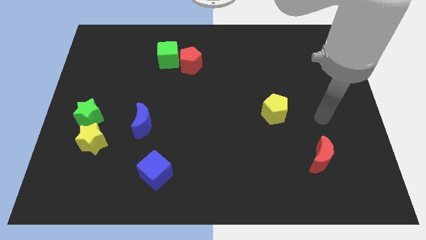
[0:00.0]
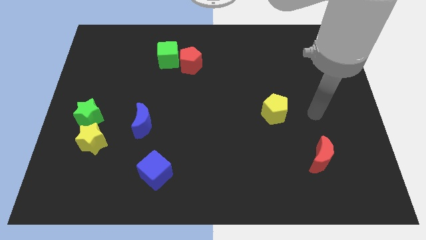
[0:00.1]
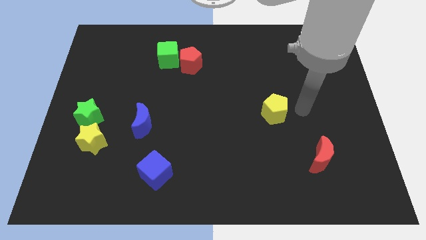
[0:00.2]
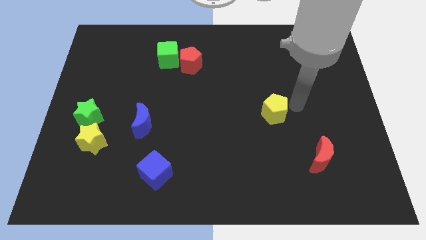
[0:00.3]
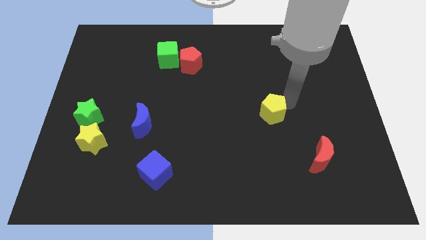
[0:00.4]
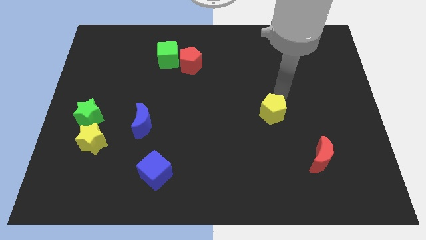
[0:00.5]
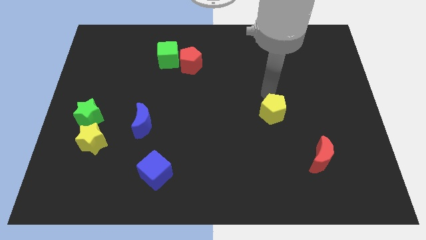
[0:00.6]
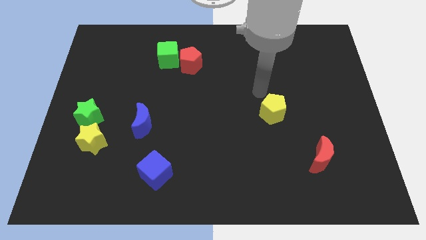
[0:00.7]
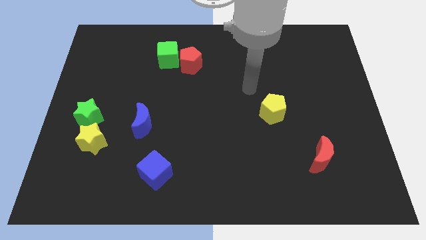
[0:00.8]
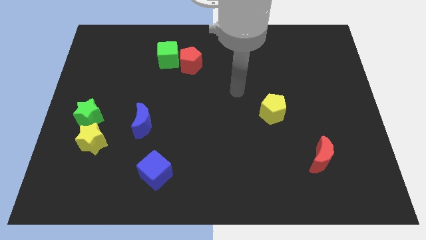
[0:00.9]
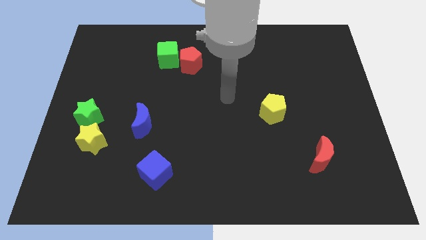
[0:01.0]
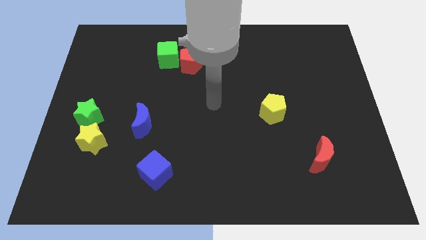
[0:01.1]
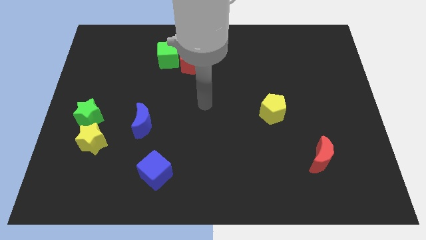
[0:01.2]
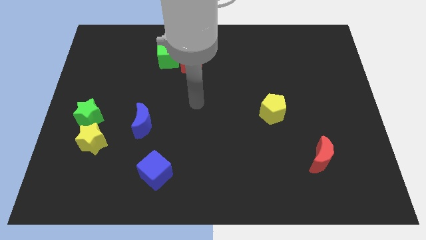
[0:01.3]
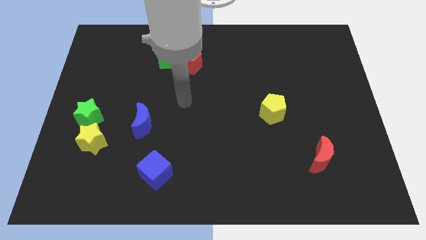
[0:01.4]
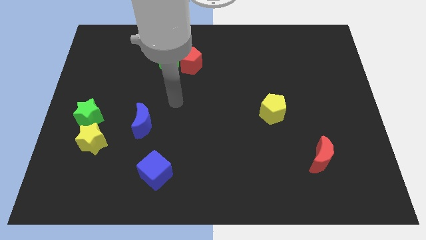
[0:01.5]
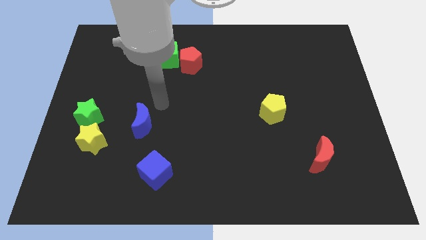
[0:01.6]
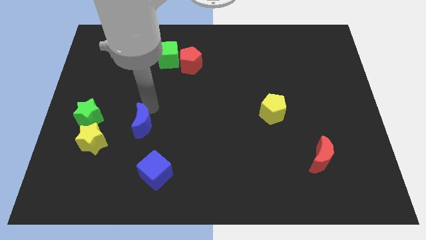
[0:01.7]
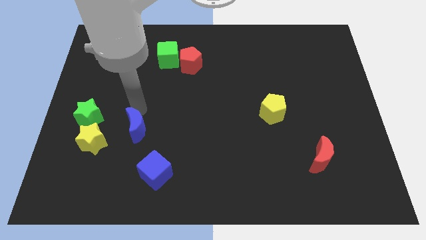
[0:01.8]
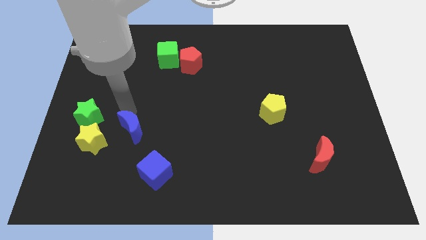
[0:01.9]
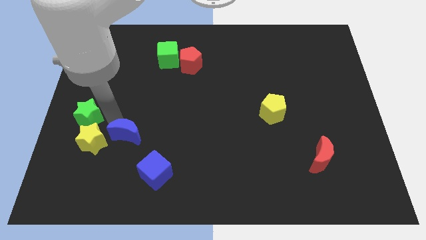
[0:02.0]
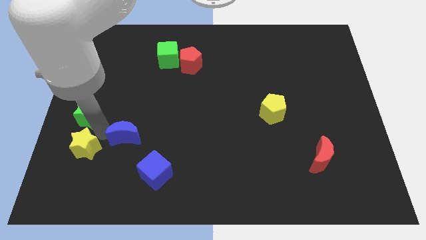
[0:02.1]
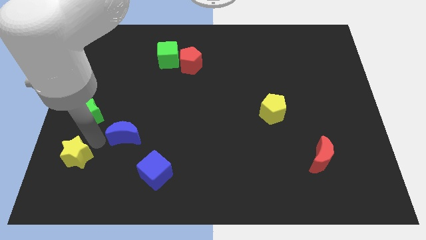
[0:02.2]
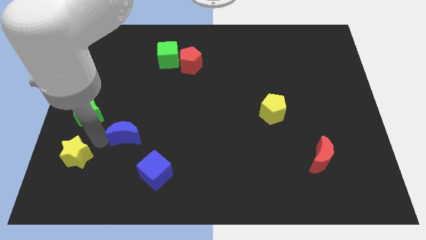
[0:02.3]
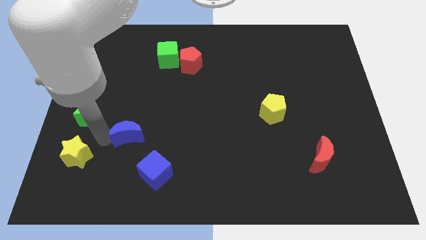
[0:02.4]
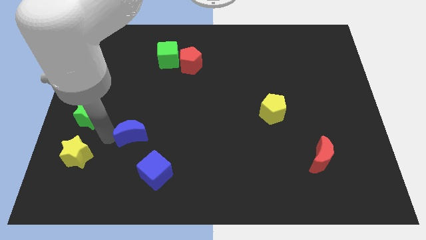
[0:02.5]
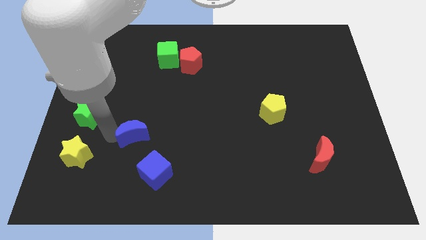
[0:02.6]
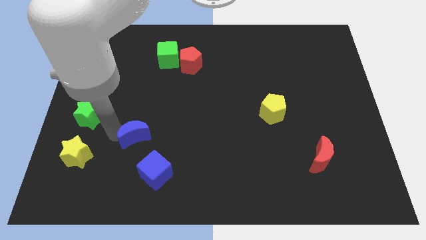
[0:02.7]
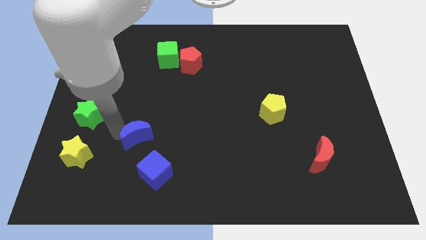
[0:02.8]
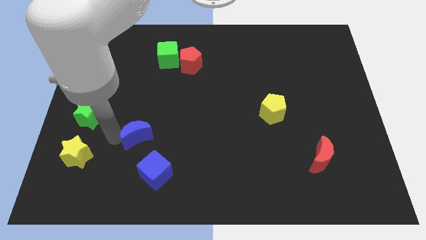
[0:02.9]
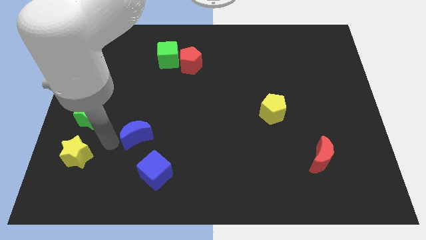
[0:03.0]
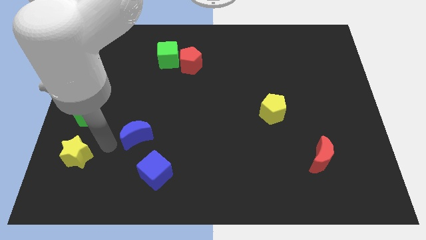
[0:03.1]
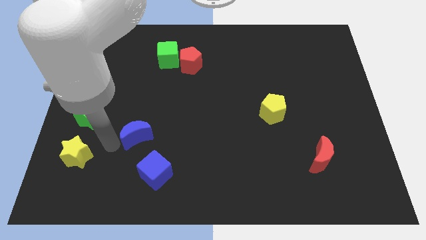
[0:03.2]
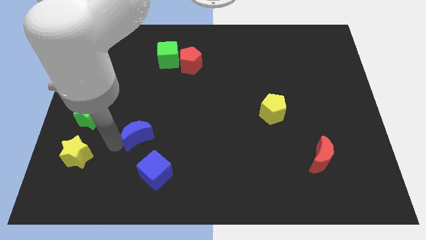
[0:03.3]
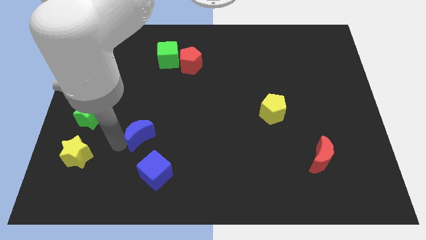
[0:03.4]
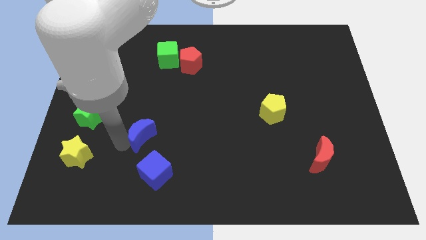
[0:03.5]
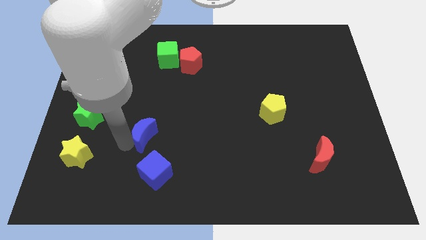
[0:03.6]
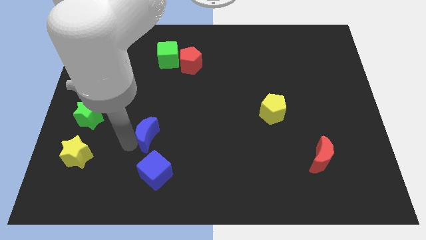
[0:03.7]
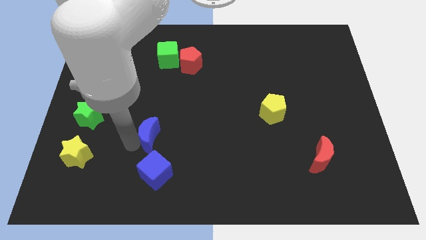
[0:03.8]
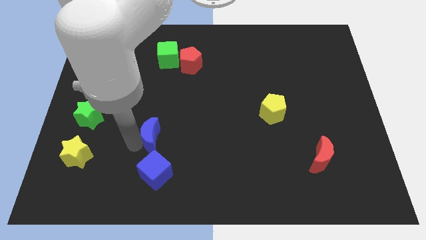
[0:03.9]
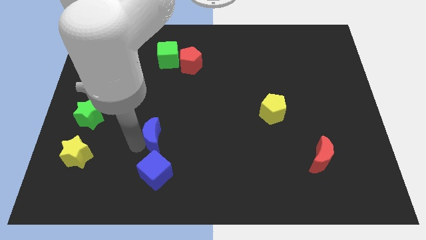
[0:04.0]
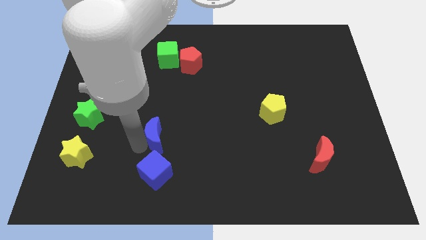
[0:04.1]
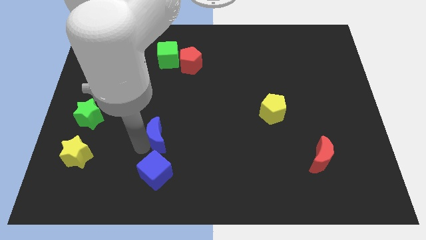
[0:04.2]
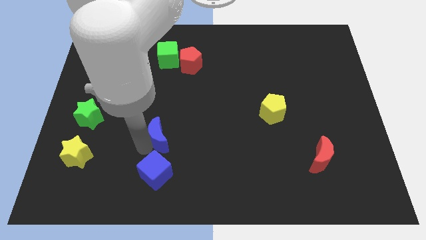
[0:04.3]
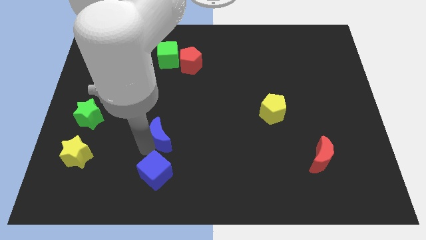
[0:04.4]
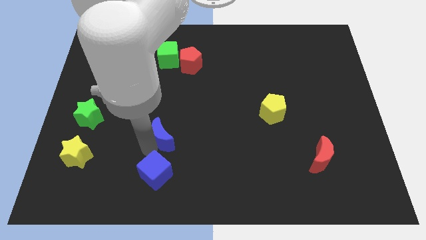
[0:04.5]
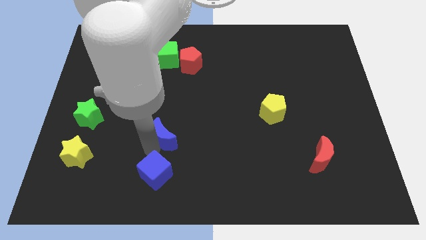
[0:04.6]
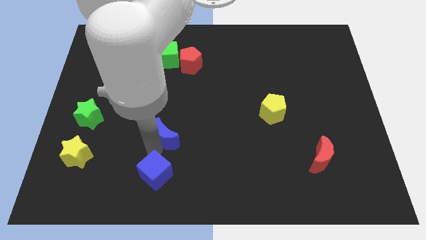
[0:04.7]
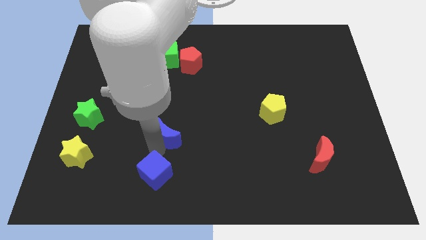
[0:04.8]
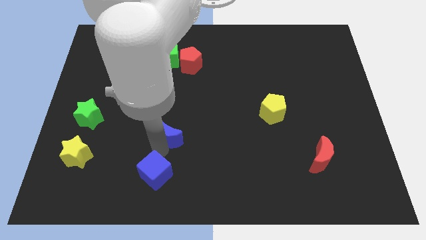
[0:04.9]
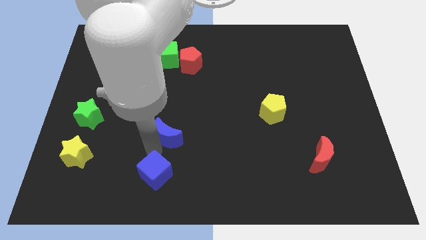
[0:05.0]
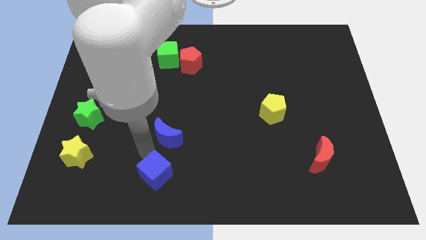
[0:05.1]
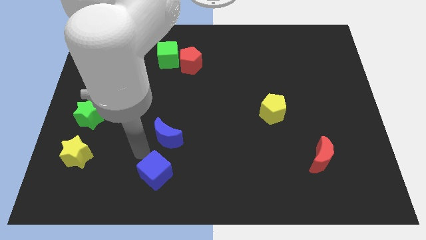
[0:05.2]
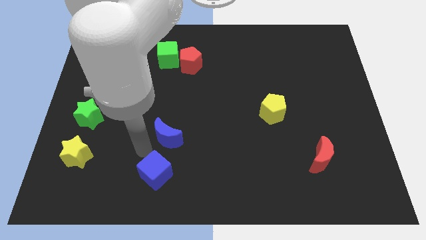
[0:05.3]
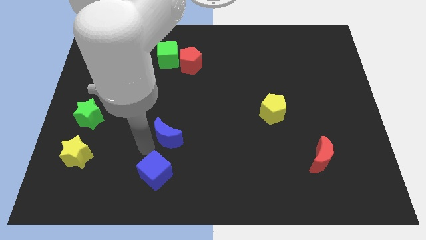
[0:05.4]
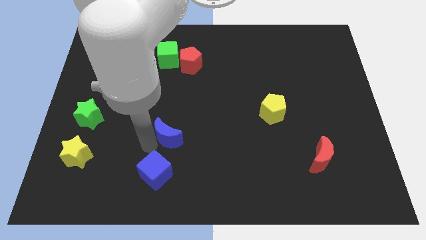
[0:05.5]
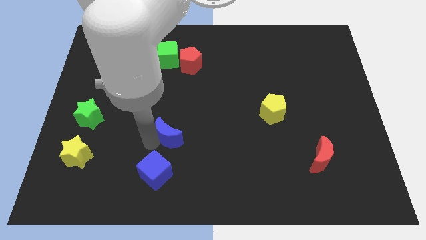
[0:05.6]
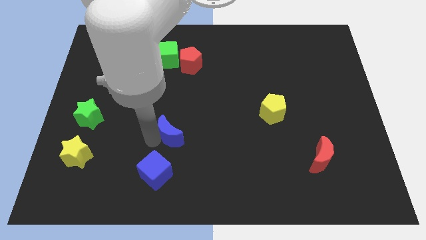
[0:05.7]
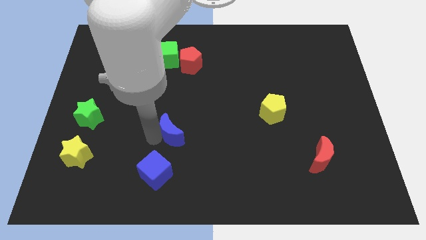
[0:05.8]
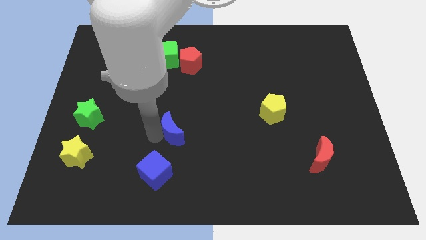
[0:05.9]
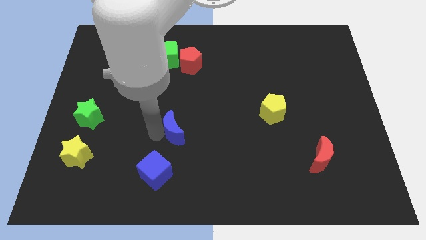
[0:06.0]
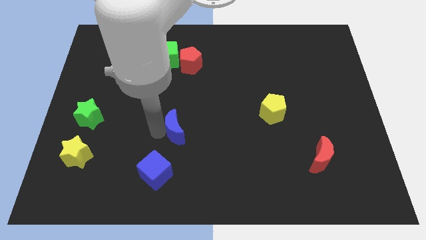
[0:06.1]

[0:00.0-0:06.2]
push the blue moon slightly to the right

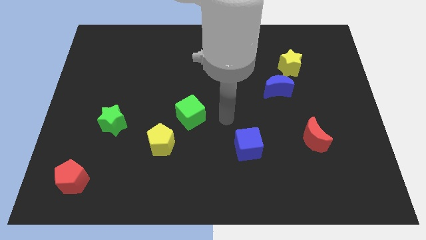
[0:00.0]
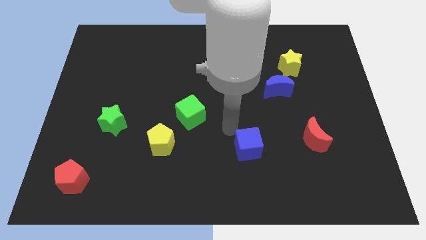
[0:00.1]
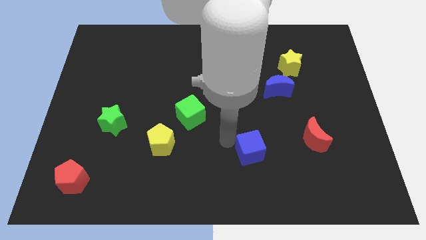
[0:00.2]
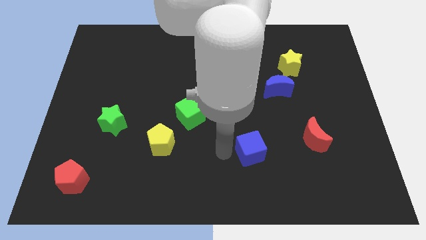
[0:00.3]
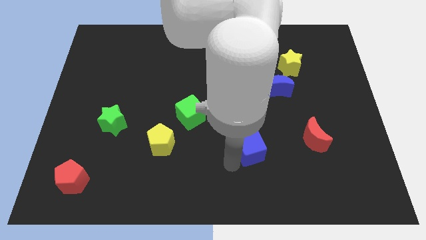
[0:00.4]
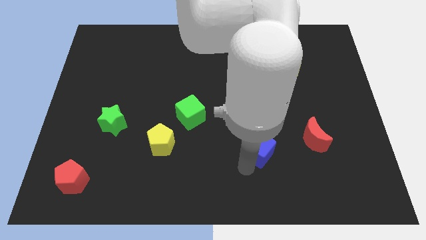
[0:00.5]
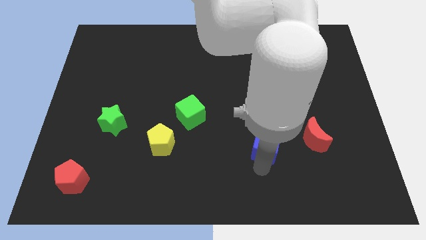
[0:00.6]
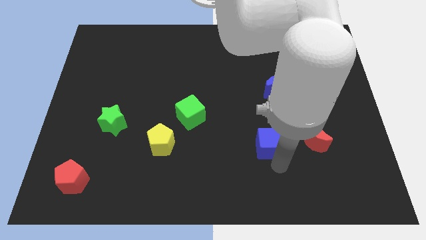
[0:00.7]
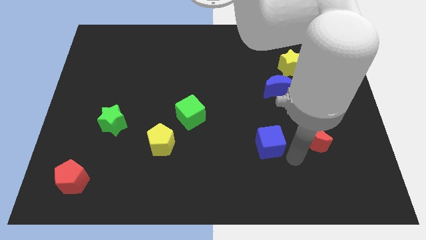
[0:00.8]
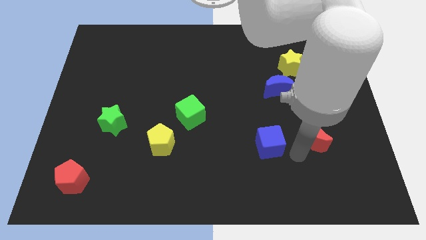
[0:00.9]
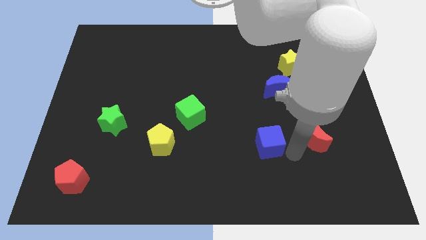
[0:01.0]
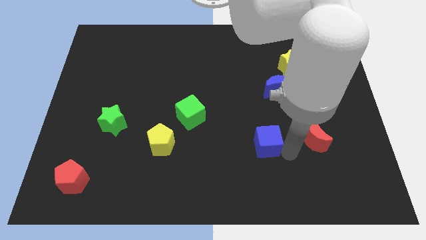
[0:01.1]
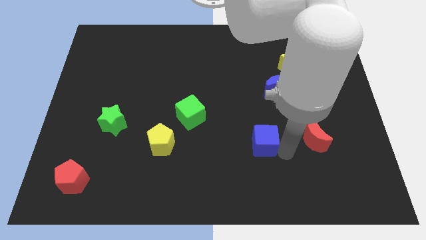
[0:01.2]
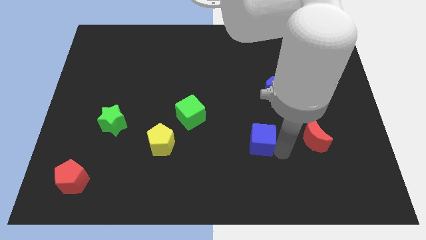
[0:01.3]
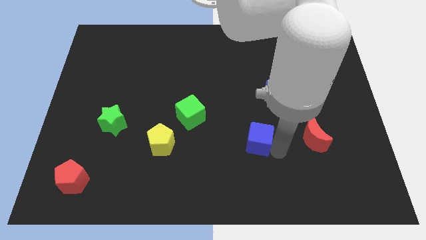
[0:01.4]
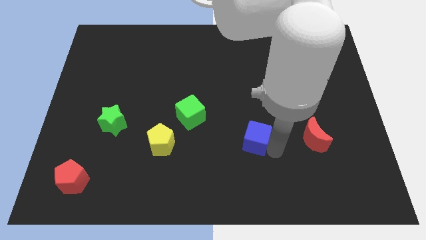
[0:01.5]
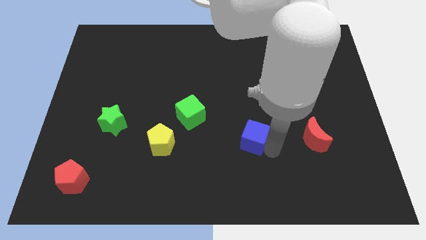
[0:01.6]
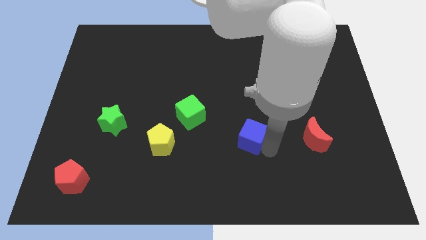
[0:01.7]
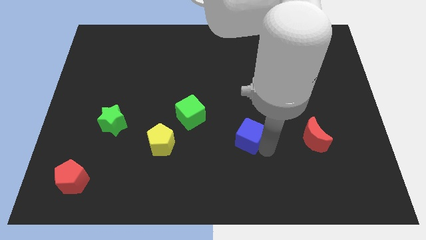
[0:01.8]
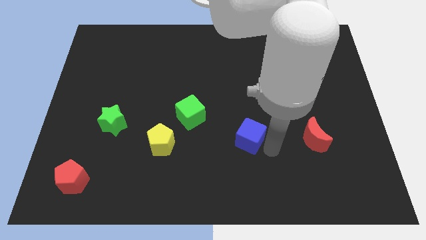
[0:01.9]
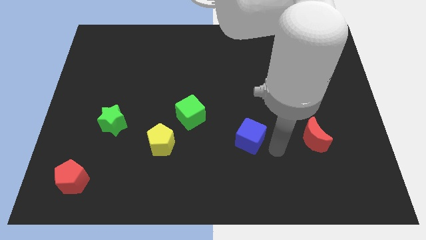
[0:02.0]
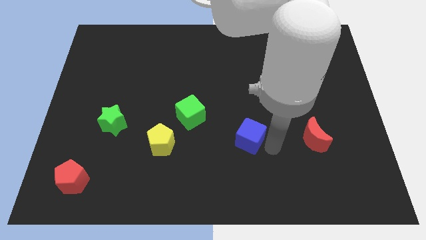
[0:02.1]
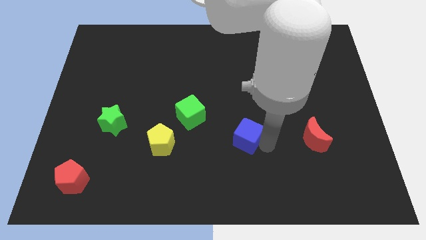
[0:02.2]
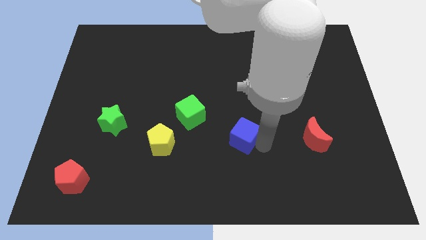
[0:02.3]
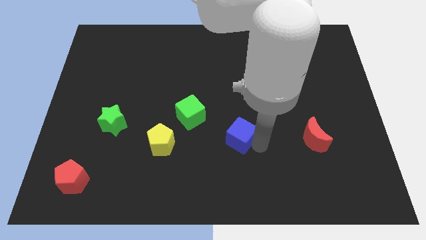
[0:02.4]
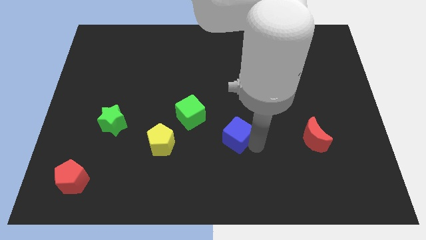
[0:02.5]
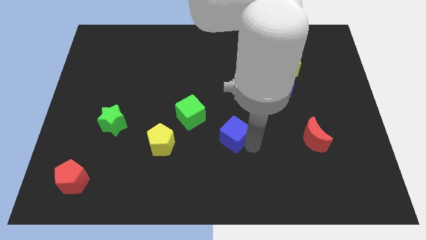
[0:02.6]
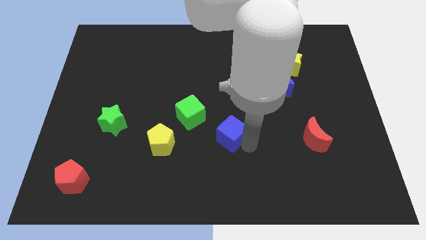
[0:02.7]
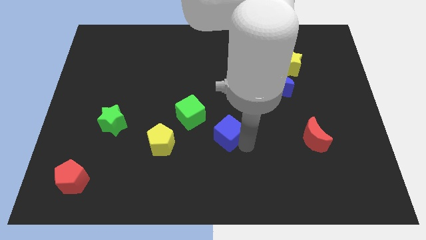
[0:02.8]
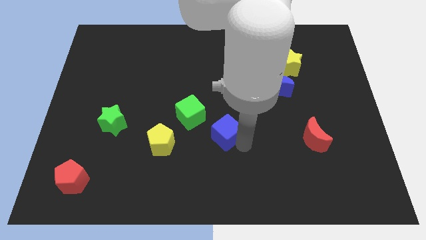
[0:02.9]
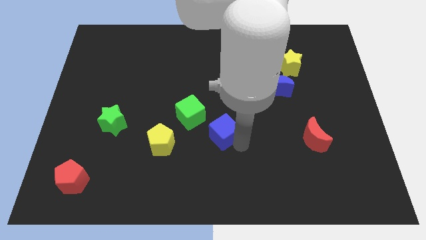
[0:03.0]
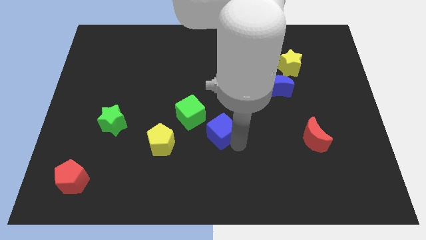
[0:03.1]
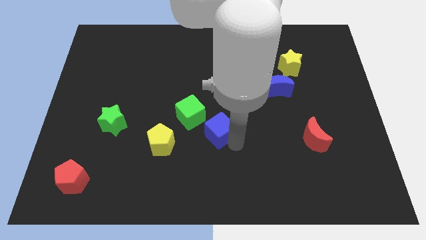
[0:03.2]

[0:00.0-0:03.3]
slightly push the blue cube up and left
